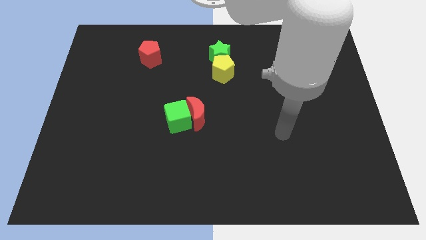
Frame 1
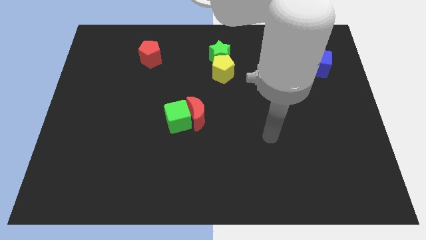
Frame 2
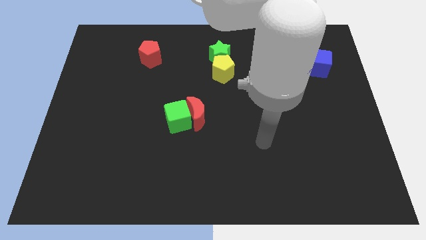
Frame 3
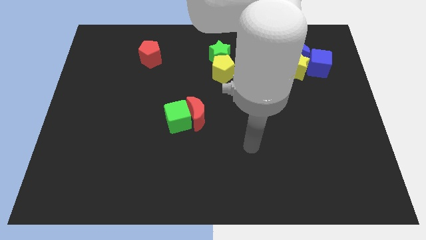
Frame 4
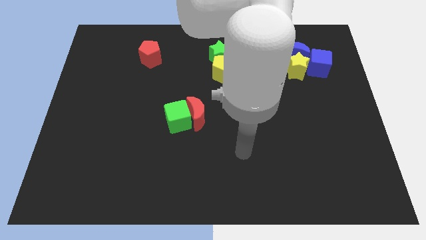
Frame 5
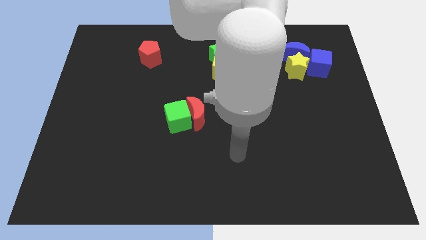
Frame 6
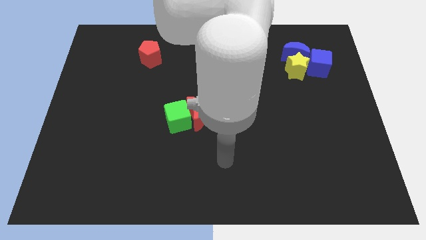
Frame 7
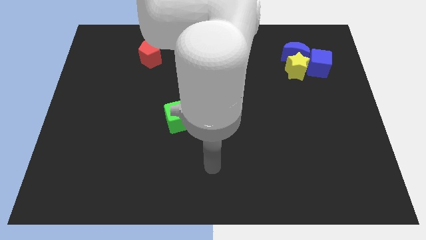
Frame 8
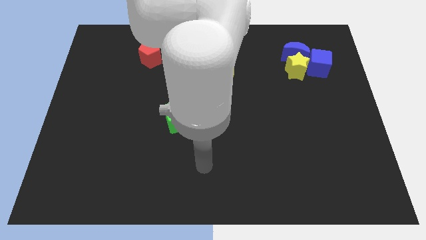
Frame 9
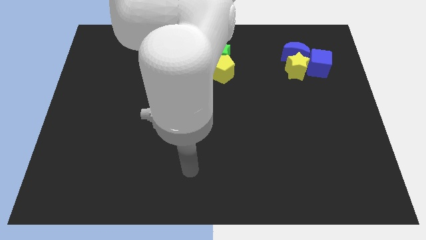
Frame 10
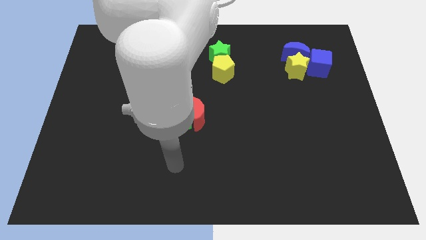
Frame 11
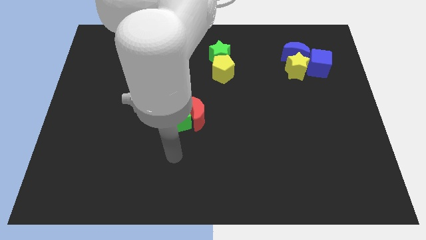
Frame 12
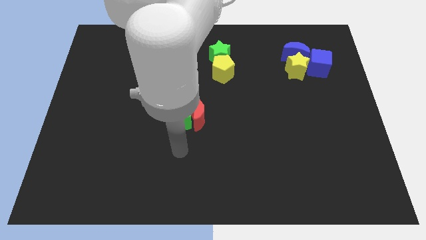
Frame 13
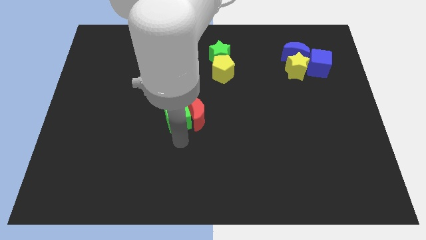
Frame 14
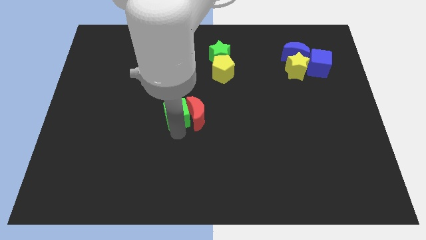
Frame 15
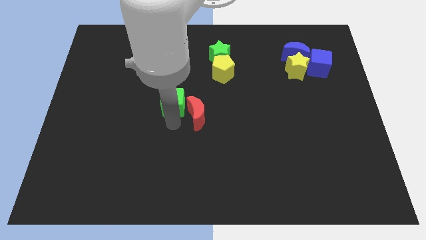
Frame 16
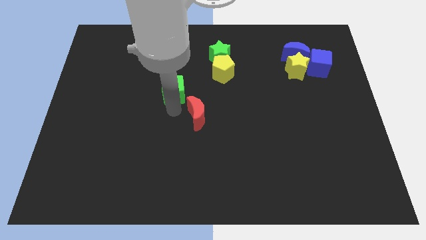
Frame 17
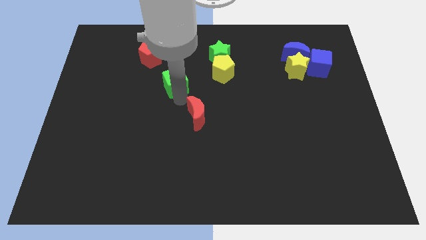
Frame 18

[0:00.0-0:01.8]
separate the red moon from the green cube

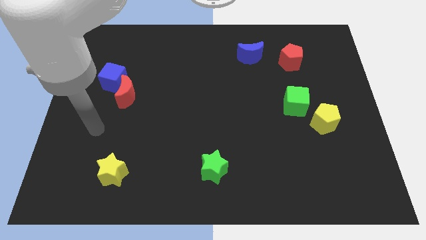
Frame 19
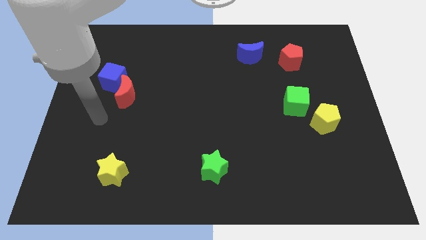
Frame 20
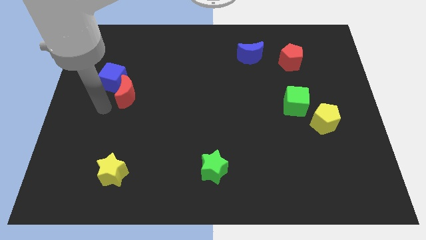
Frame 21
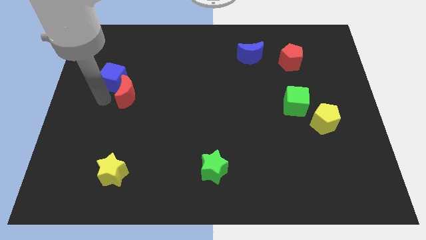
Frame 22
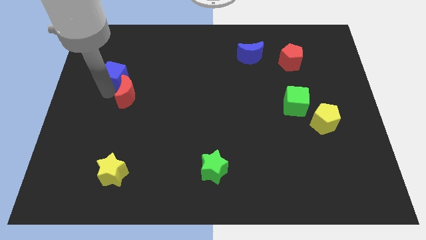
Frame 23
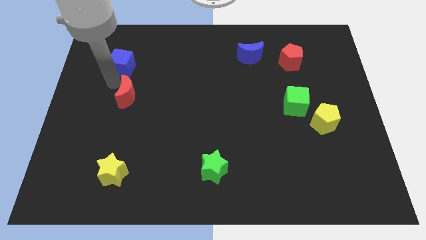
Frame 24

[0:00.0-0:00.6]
pull the red moon apart from the blue cube

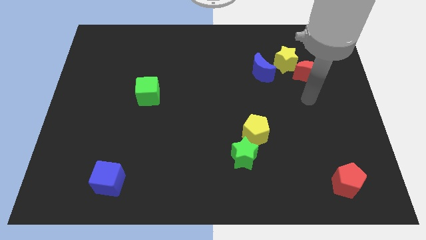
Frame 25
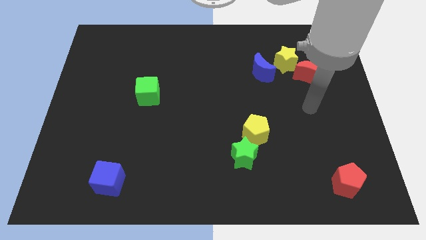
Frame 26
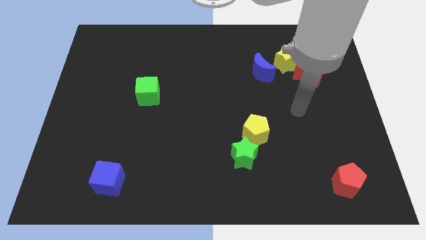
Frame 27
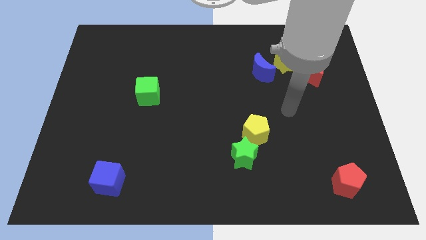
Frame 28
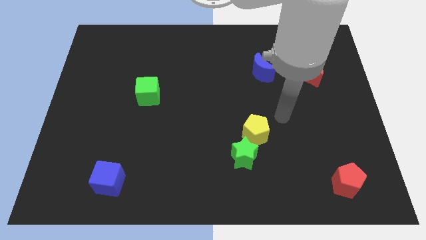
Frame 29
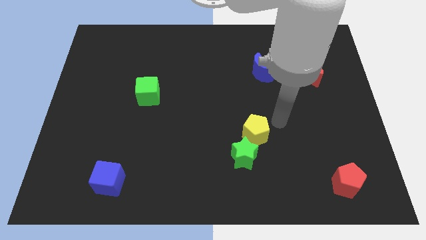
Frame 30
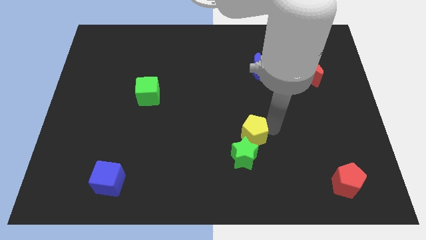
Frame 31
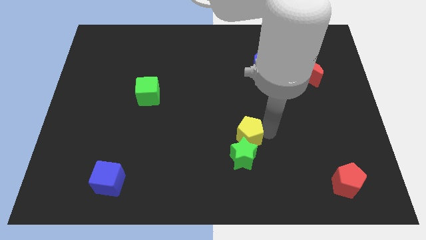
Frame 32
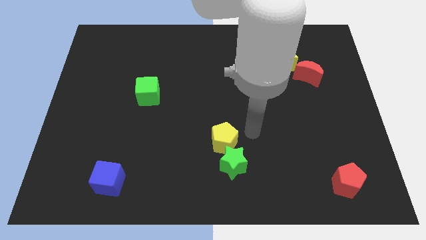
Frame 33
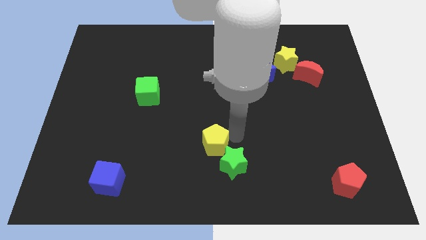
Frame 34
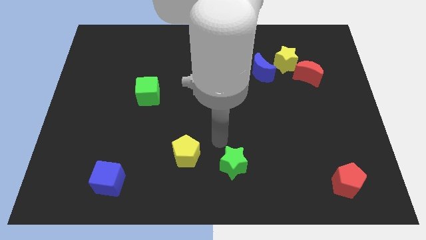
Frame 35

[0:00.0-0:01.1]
pull the green star apart from the yellow pentagon

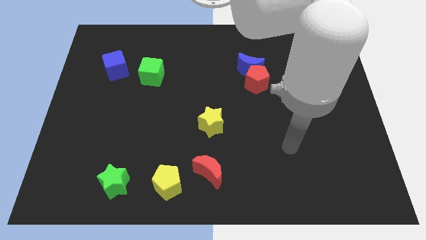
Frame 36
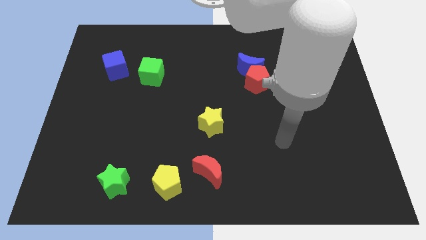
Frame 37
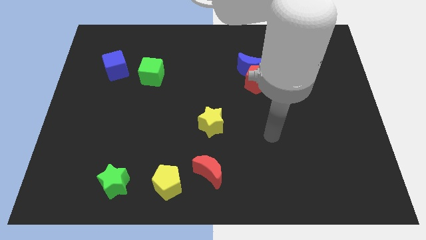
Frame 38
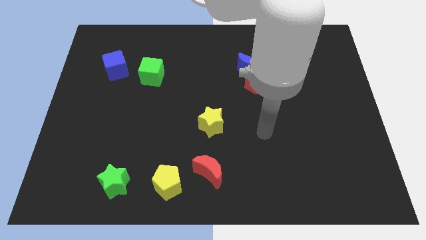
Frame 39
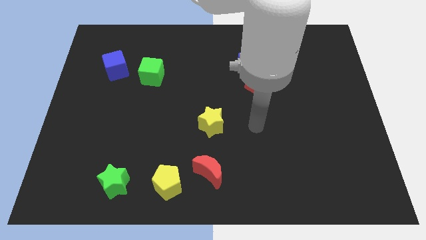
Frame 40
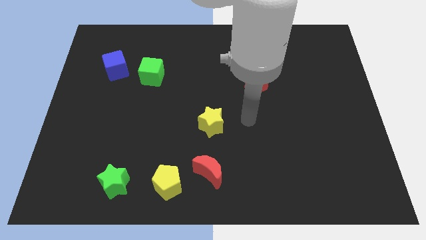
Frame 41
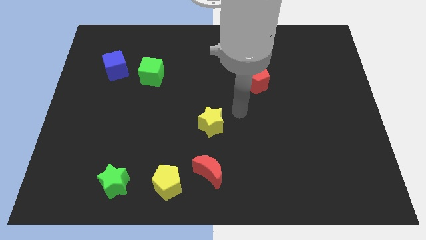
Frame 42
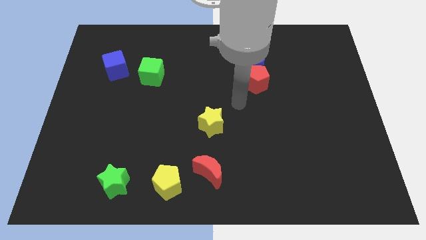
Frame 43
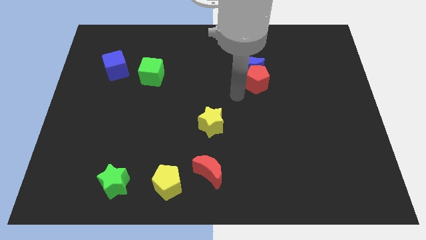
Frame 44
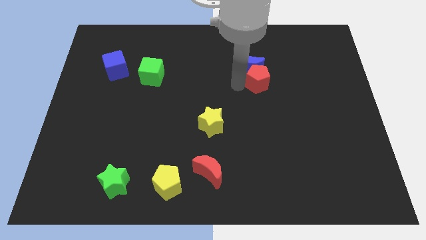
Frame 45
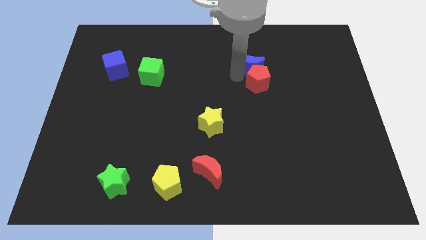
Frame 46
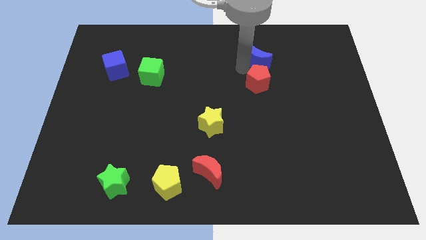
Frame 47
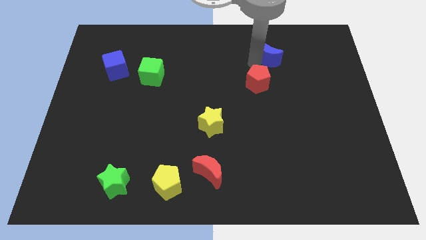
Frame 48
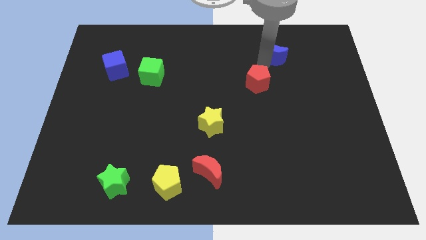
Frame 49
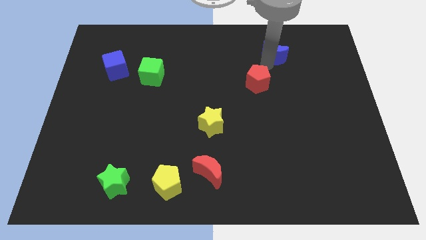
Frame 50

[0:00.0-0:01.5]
move the red pentagon away from the blue moon

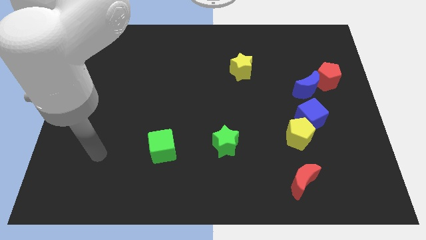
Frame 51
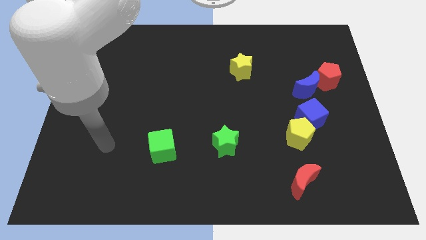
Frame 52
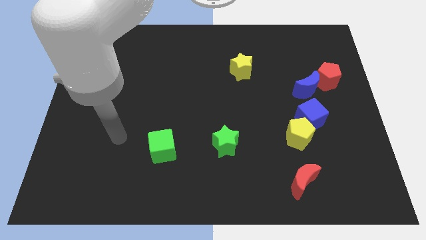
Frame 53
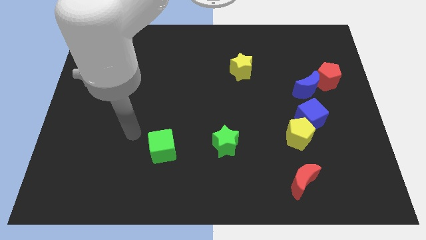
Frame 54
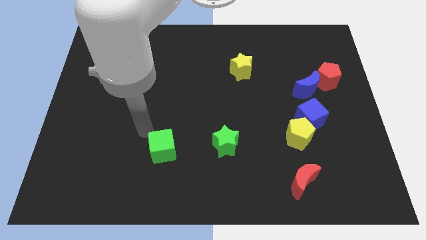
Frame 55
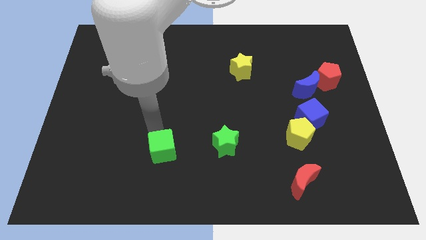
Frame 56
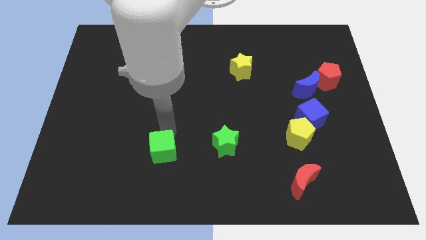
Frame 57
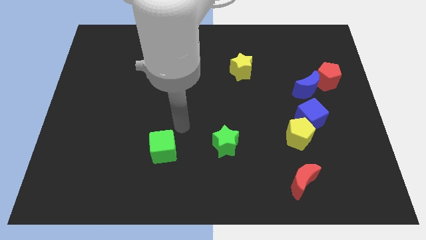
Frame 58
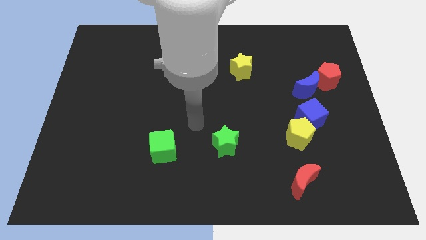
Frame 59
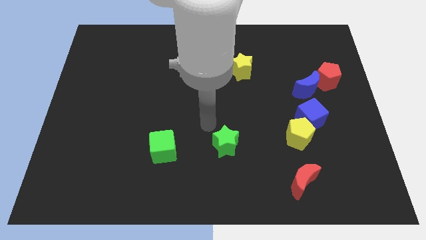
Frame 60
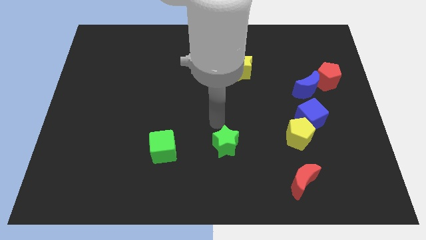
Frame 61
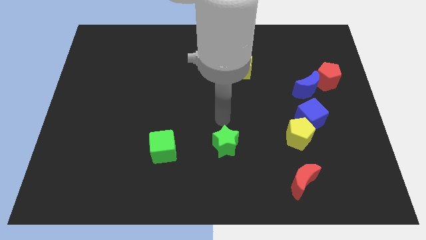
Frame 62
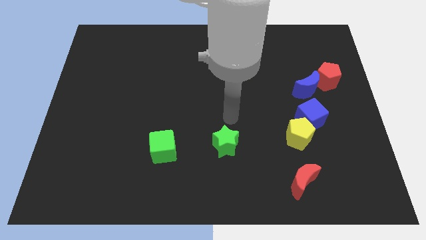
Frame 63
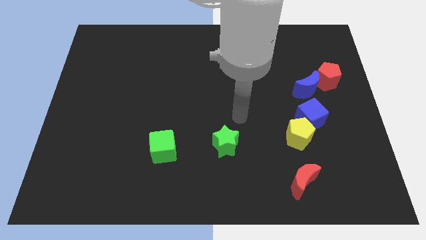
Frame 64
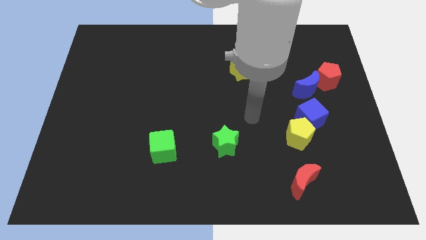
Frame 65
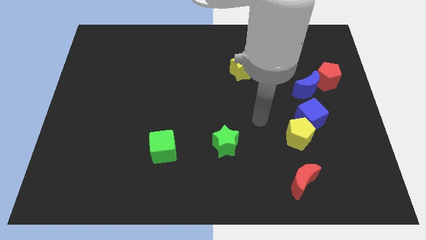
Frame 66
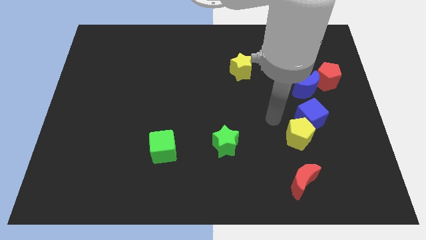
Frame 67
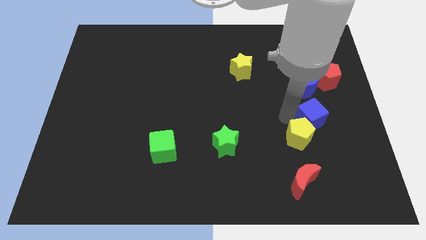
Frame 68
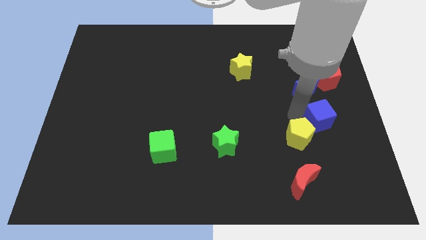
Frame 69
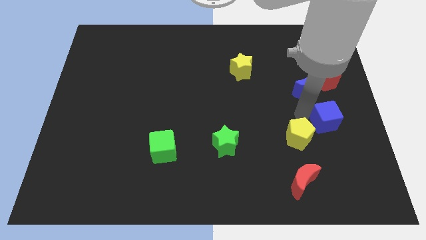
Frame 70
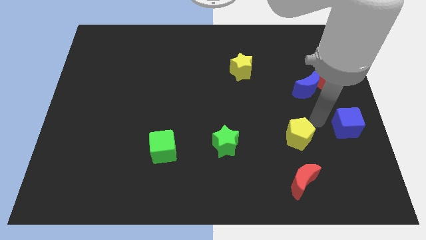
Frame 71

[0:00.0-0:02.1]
move the yellow pentagon away from the blue cube

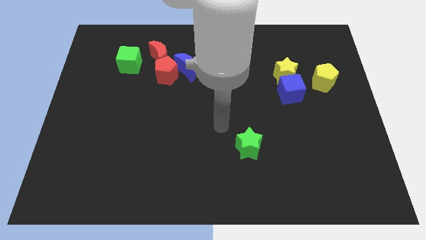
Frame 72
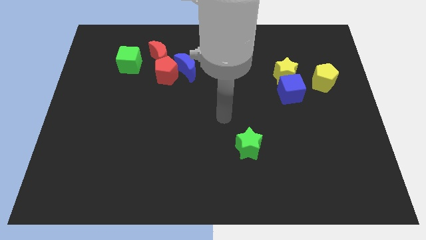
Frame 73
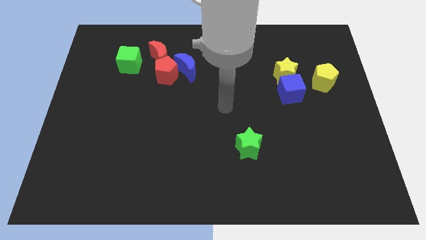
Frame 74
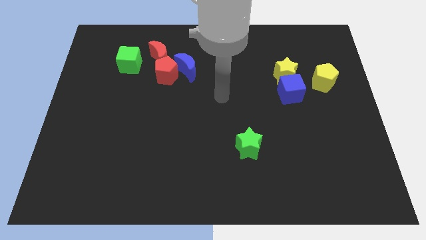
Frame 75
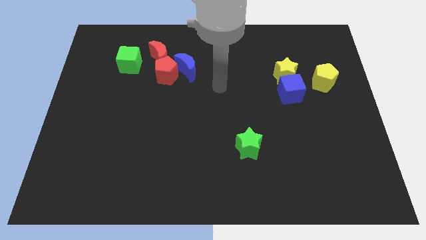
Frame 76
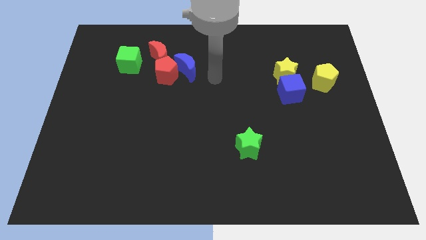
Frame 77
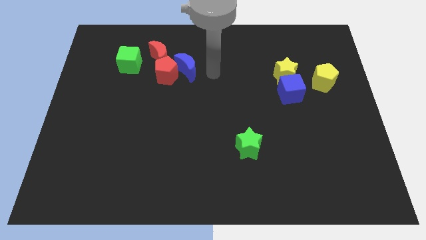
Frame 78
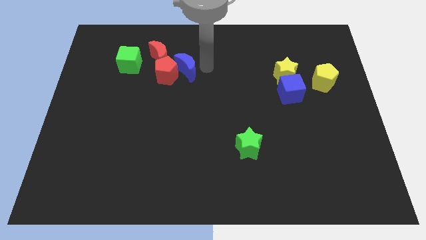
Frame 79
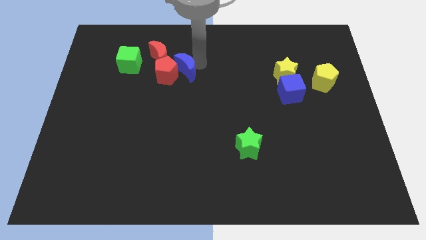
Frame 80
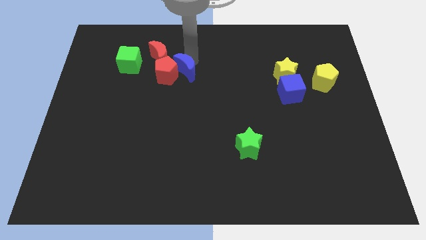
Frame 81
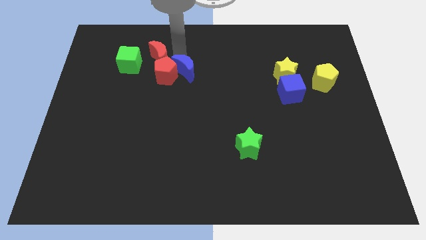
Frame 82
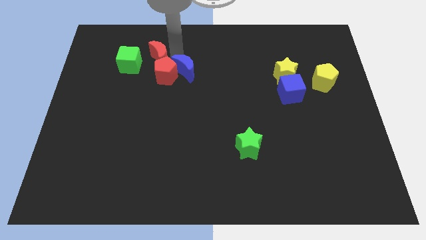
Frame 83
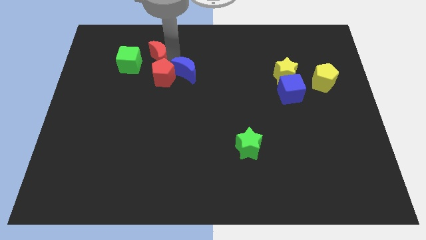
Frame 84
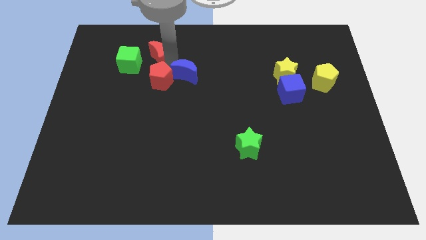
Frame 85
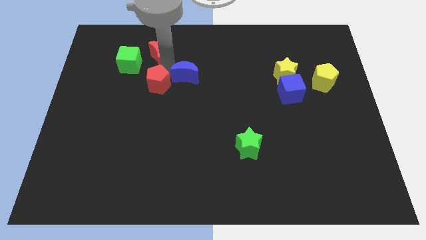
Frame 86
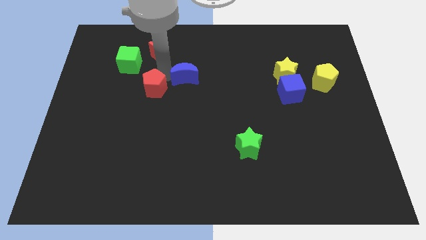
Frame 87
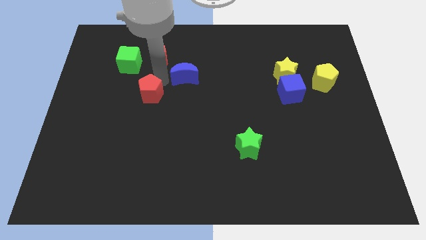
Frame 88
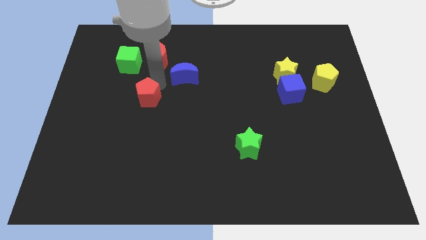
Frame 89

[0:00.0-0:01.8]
pull the red pentagon apart from the blue moon and red moon

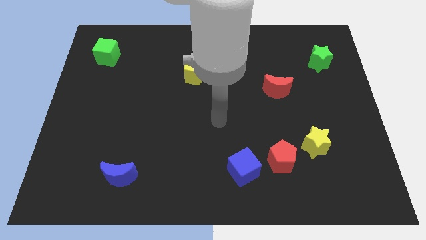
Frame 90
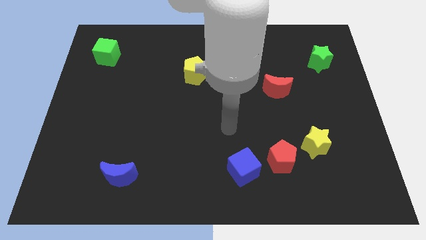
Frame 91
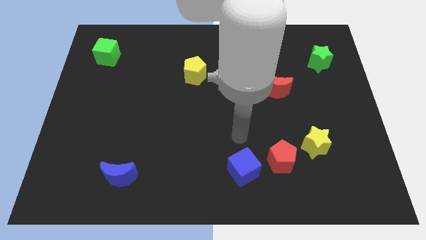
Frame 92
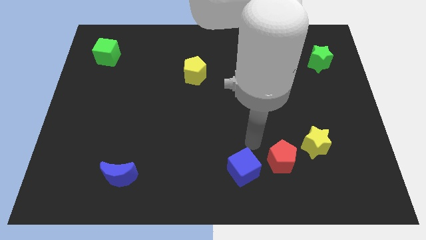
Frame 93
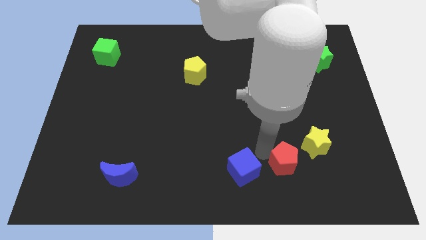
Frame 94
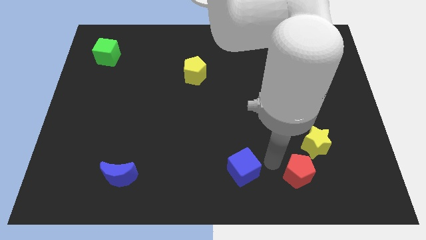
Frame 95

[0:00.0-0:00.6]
separate the blue cube from the red pentagon
